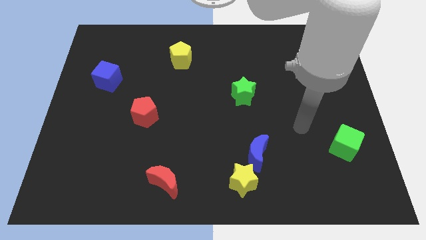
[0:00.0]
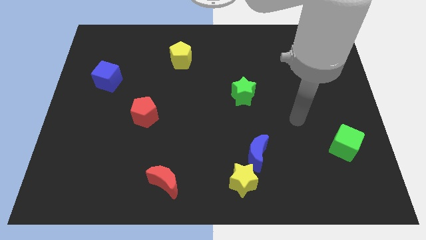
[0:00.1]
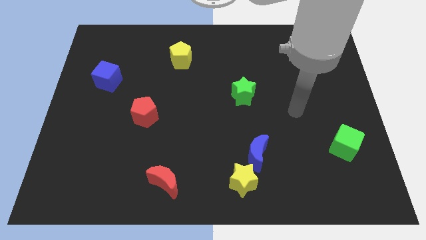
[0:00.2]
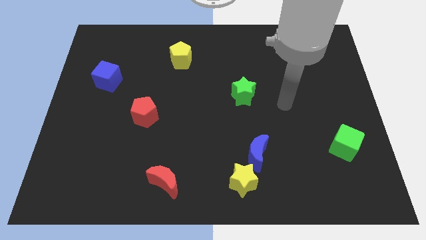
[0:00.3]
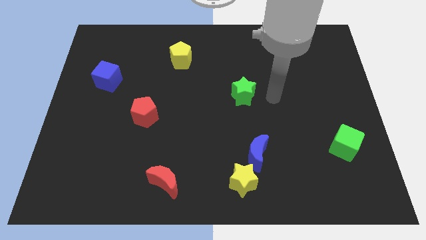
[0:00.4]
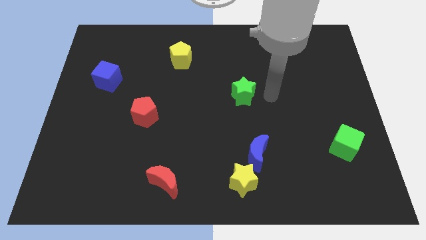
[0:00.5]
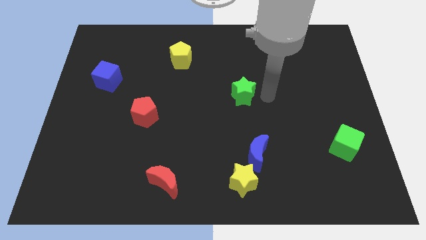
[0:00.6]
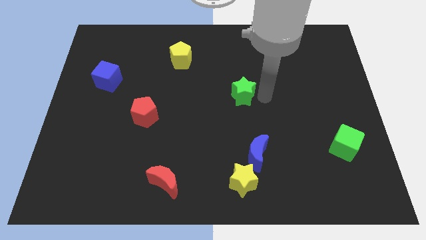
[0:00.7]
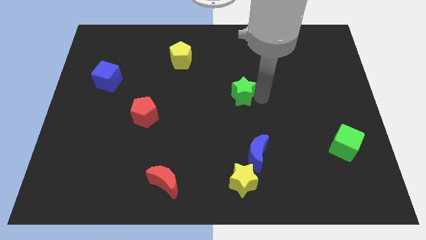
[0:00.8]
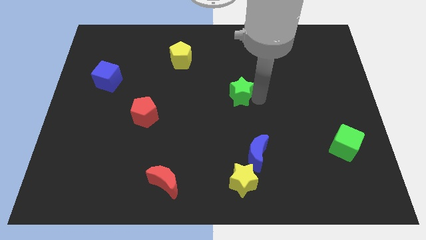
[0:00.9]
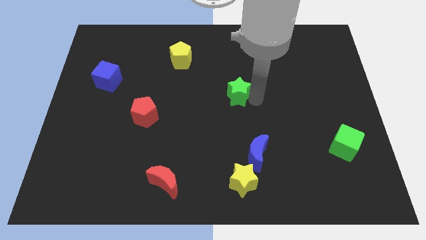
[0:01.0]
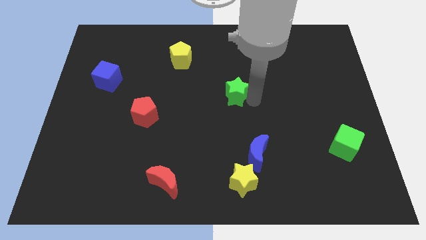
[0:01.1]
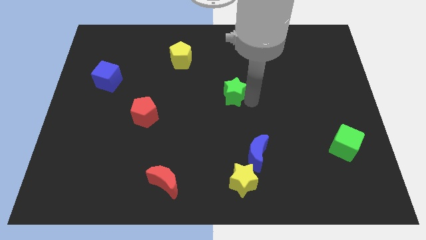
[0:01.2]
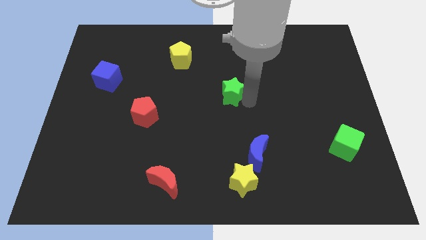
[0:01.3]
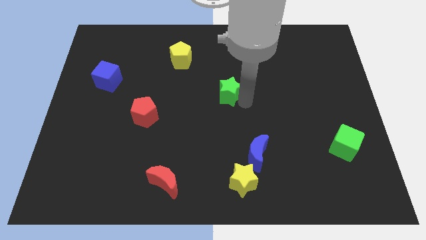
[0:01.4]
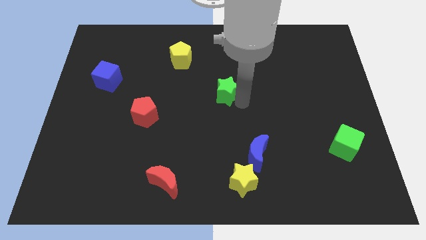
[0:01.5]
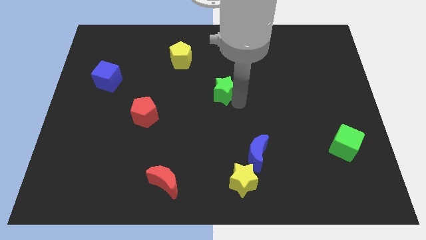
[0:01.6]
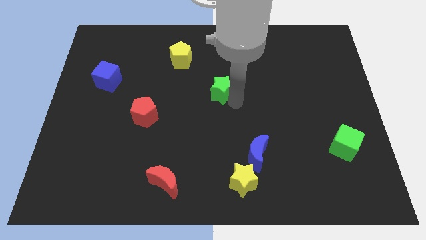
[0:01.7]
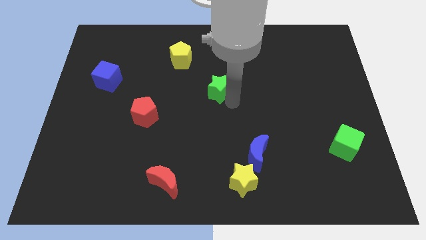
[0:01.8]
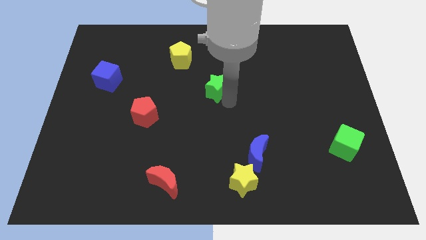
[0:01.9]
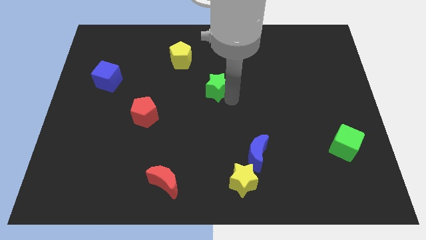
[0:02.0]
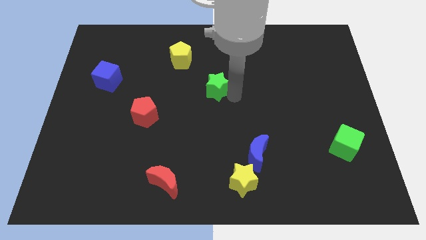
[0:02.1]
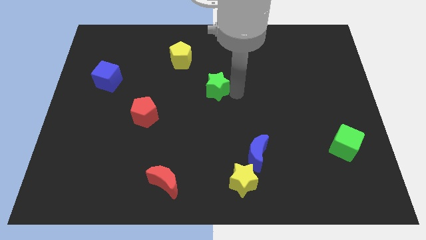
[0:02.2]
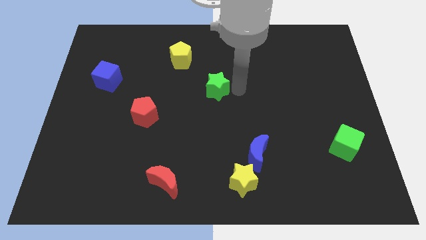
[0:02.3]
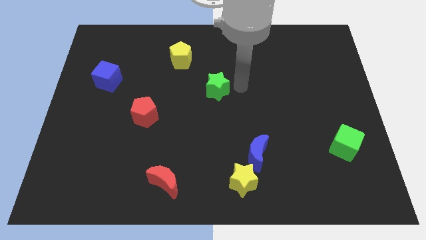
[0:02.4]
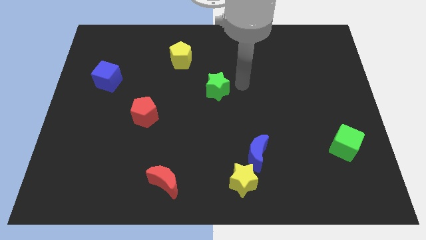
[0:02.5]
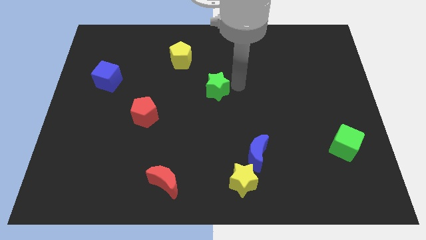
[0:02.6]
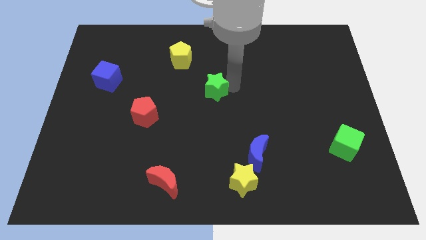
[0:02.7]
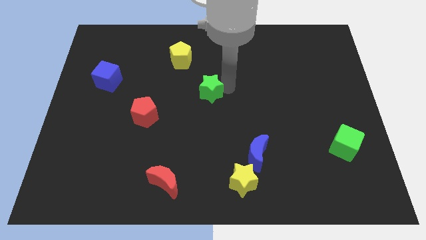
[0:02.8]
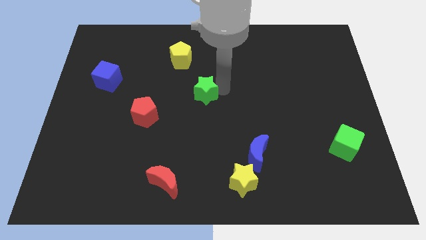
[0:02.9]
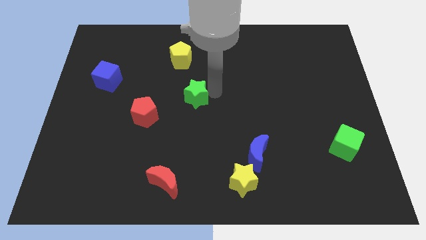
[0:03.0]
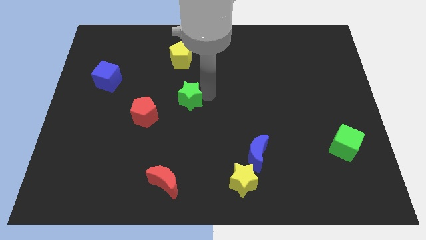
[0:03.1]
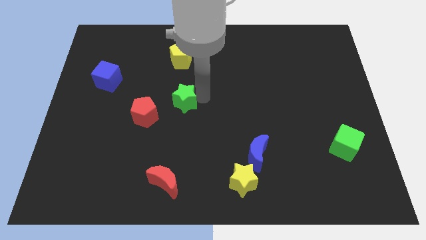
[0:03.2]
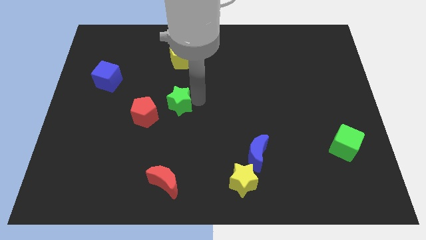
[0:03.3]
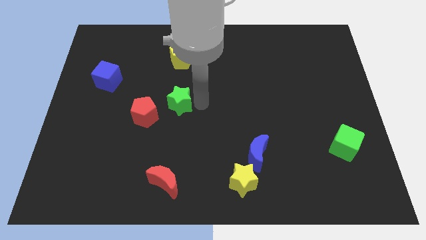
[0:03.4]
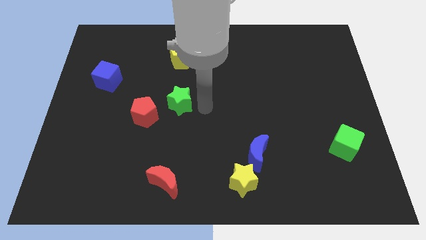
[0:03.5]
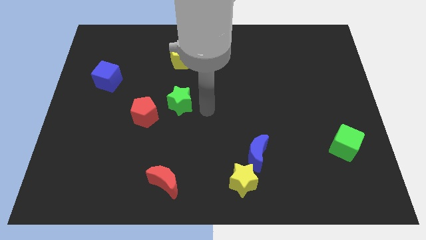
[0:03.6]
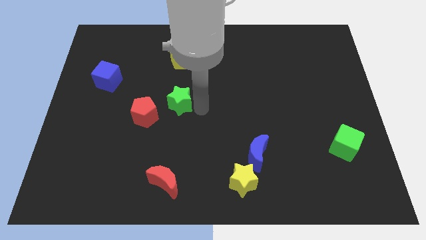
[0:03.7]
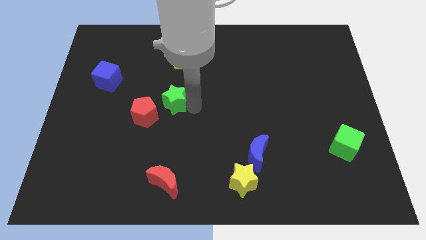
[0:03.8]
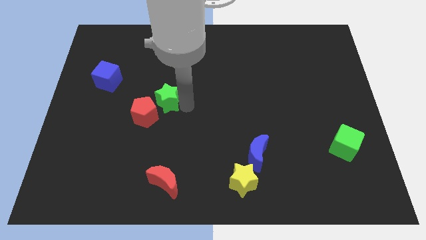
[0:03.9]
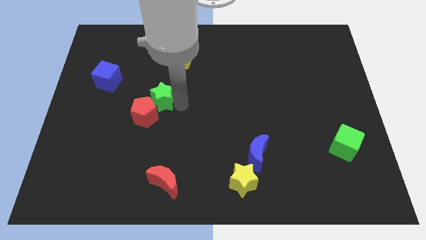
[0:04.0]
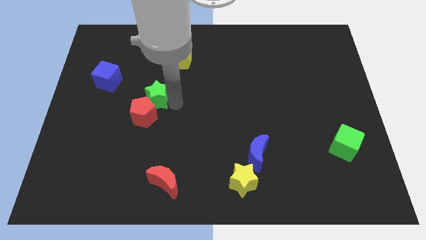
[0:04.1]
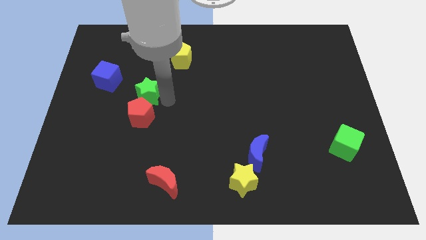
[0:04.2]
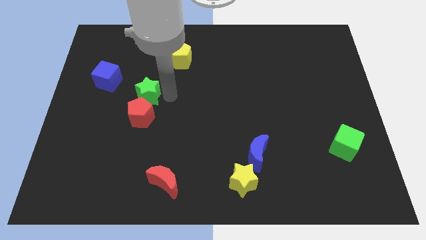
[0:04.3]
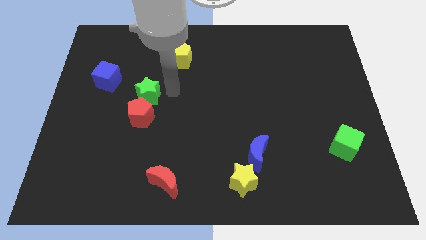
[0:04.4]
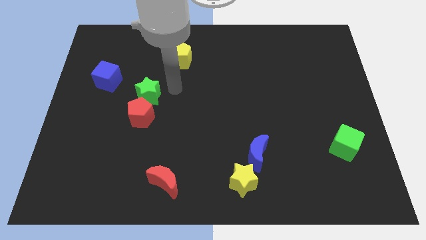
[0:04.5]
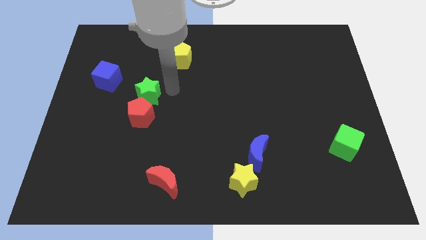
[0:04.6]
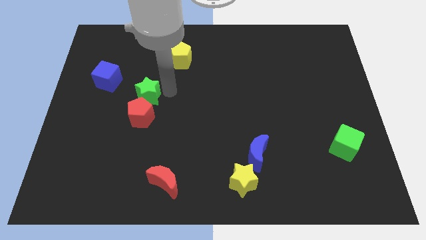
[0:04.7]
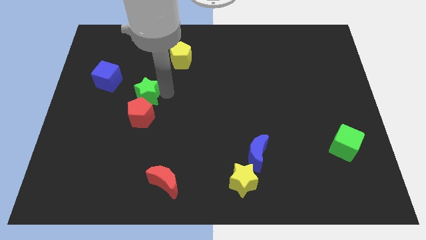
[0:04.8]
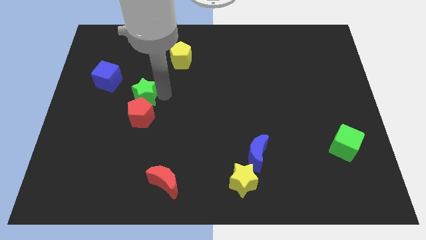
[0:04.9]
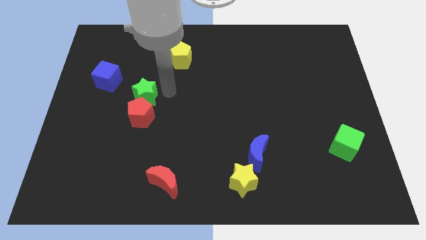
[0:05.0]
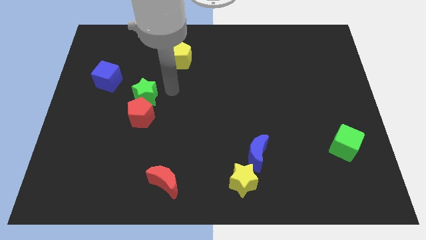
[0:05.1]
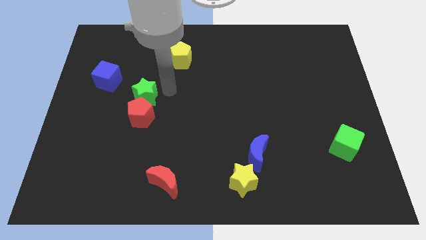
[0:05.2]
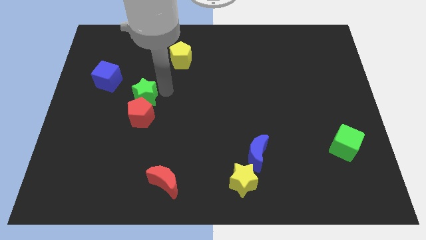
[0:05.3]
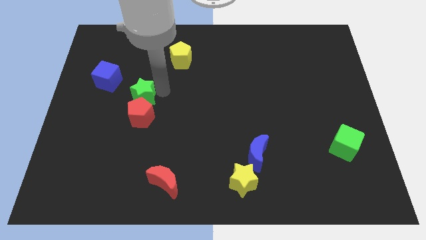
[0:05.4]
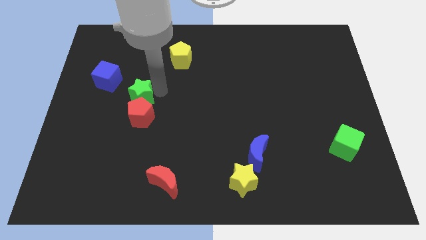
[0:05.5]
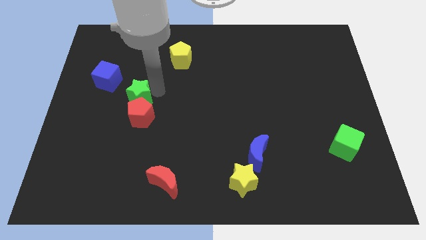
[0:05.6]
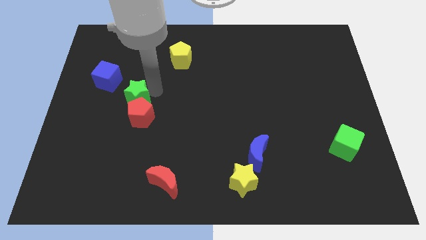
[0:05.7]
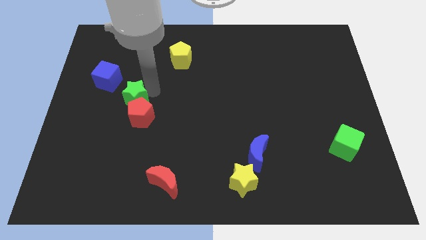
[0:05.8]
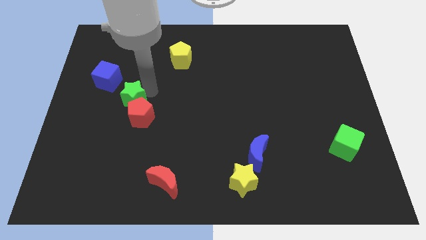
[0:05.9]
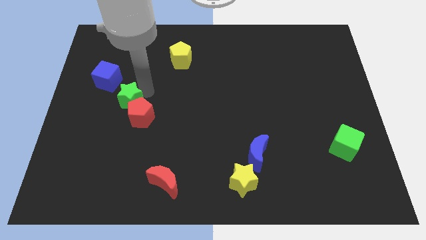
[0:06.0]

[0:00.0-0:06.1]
slide the green star just left of the red pentagon

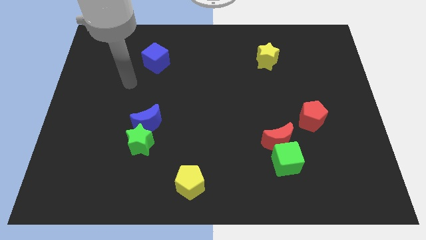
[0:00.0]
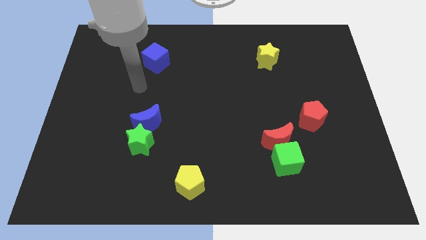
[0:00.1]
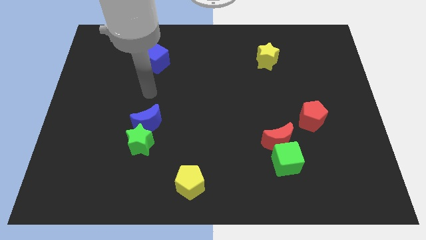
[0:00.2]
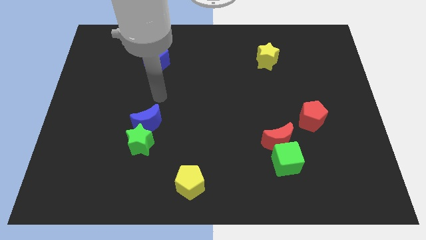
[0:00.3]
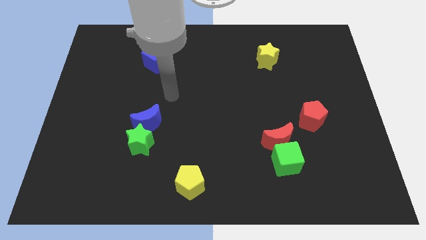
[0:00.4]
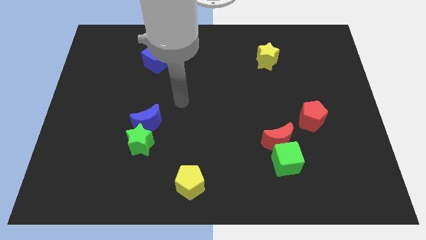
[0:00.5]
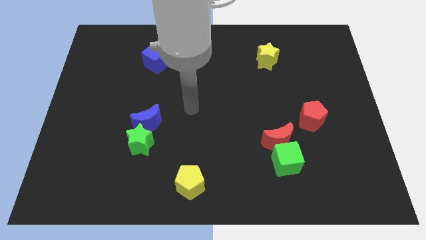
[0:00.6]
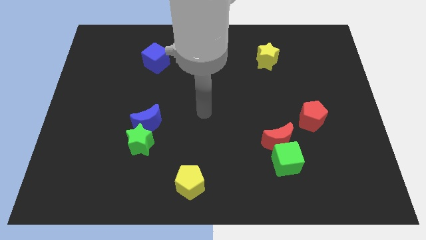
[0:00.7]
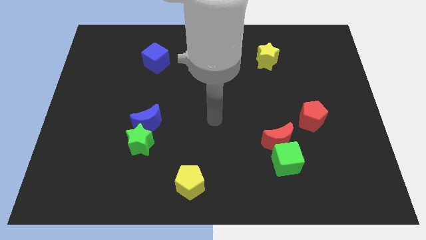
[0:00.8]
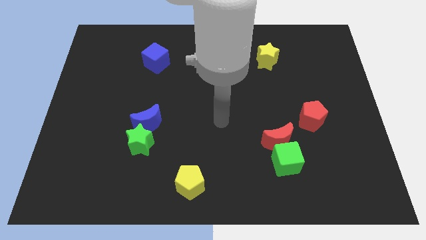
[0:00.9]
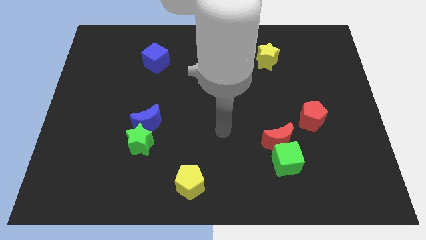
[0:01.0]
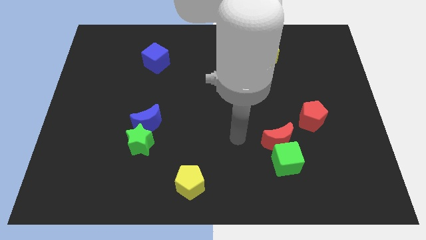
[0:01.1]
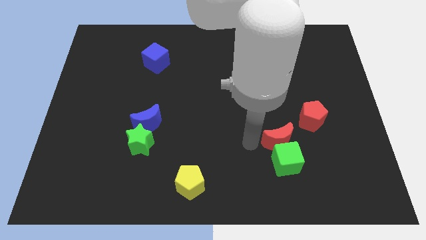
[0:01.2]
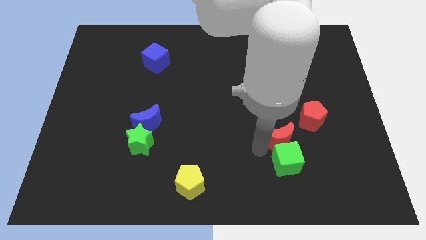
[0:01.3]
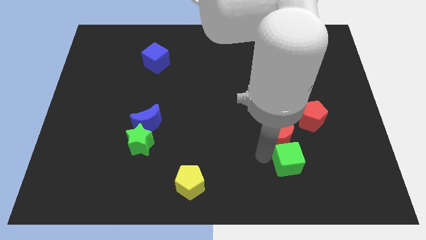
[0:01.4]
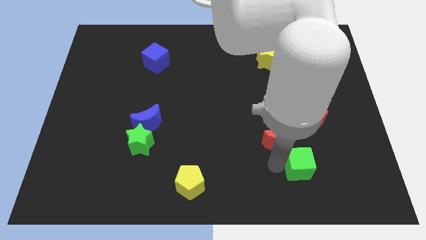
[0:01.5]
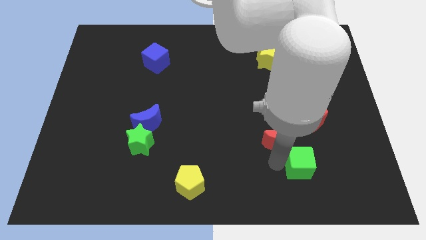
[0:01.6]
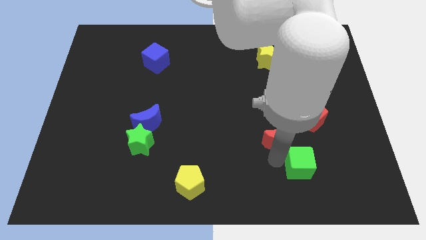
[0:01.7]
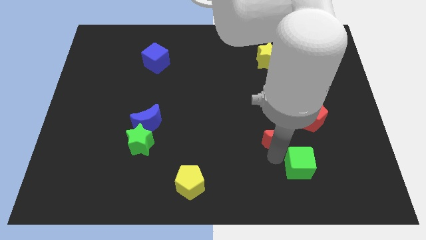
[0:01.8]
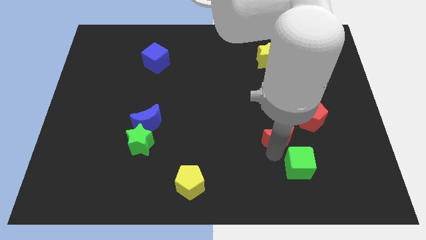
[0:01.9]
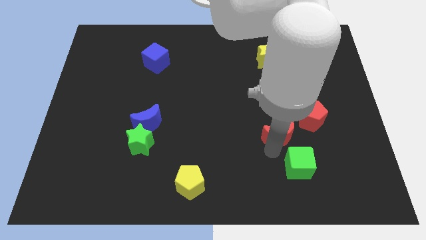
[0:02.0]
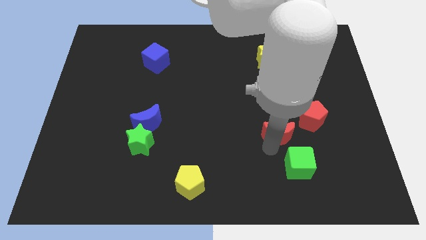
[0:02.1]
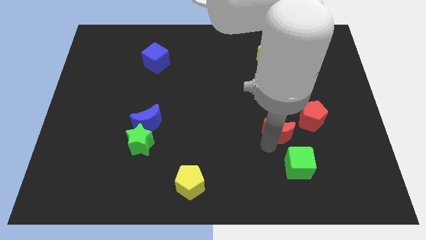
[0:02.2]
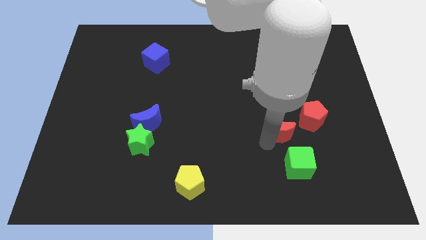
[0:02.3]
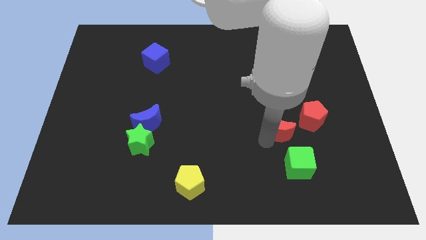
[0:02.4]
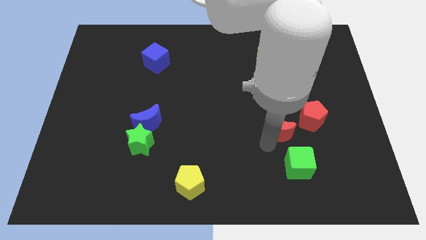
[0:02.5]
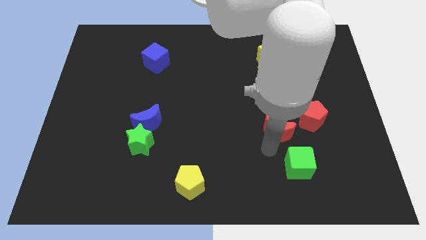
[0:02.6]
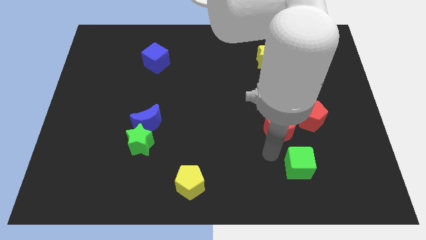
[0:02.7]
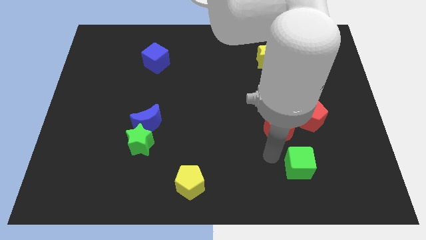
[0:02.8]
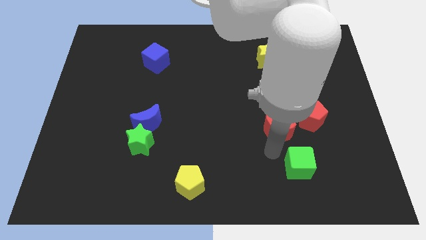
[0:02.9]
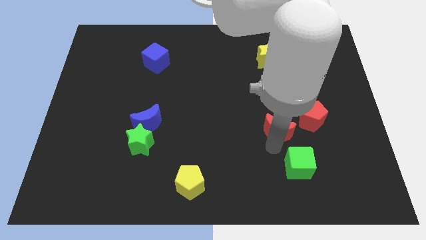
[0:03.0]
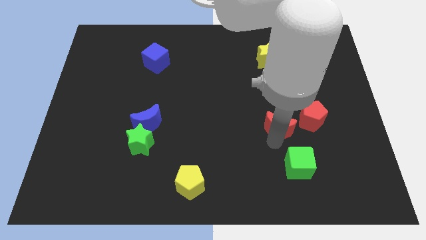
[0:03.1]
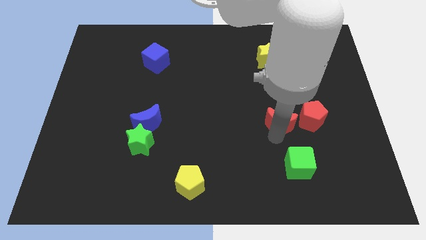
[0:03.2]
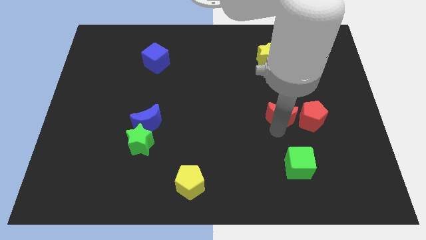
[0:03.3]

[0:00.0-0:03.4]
put the red moon to the top left of the red pentagon
